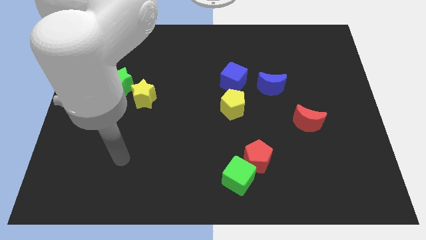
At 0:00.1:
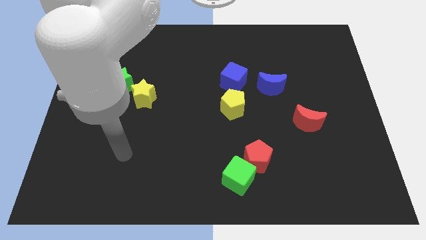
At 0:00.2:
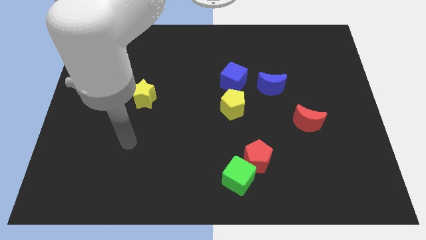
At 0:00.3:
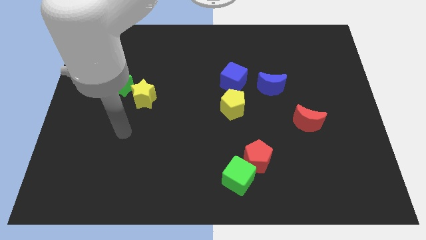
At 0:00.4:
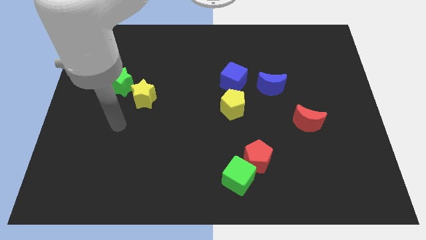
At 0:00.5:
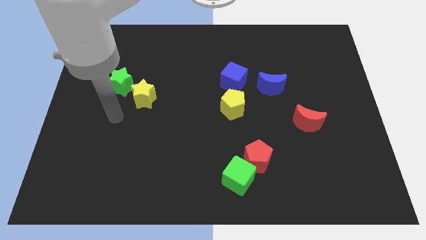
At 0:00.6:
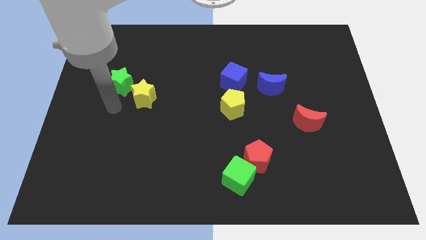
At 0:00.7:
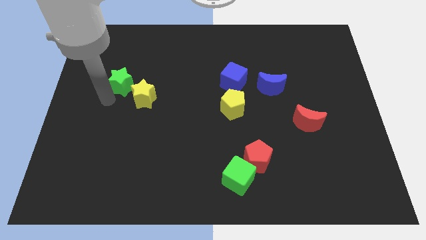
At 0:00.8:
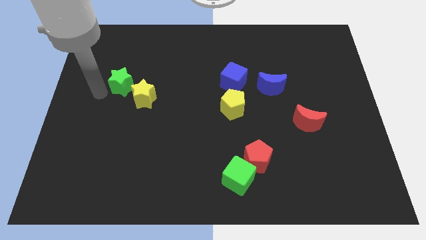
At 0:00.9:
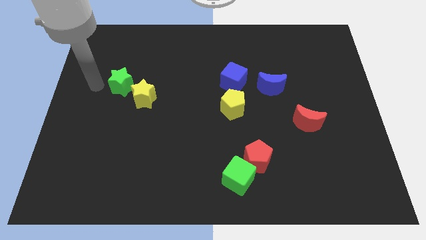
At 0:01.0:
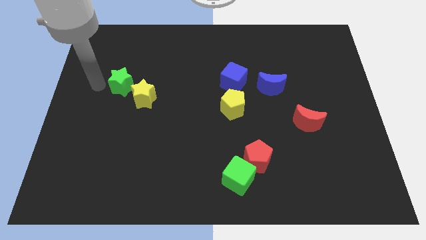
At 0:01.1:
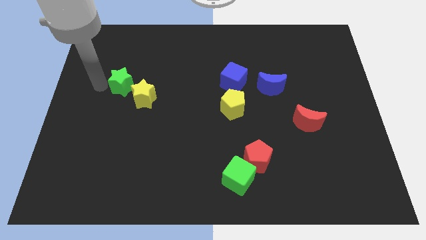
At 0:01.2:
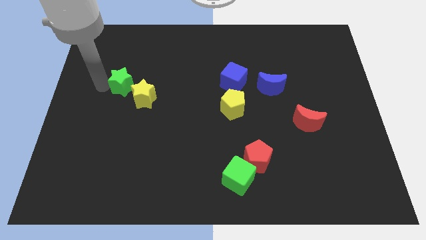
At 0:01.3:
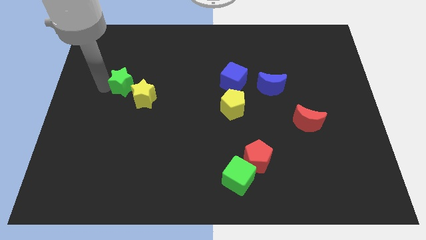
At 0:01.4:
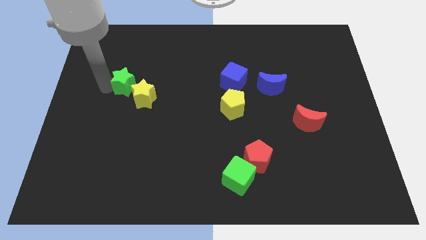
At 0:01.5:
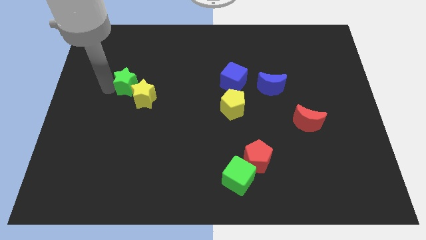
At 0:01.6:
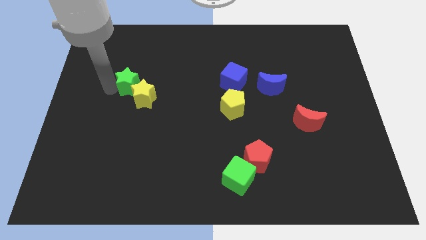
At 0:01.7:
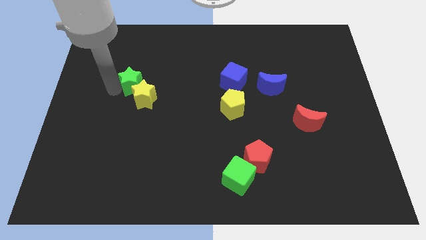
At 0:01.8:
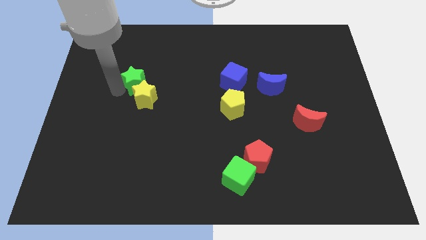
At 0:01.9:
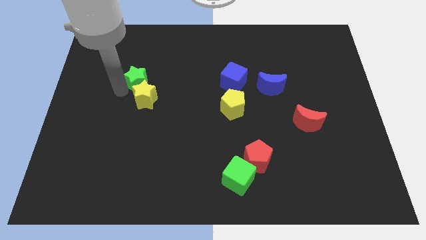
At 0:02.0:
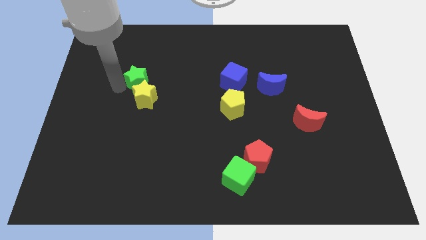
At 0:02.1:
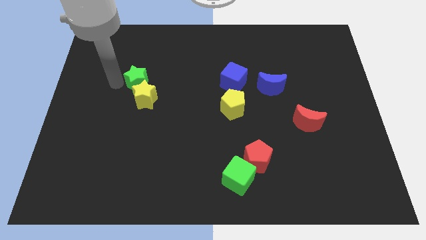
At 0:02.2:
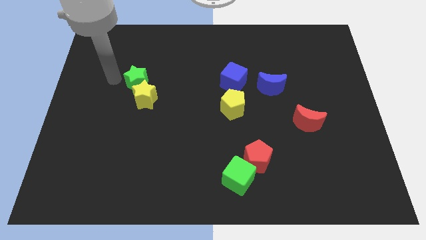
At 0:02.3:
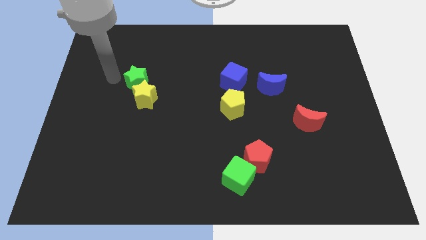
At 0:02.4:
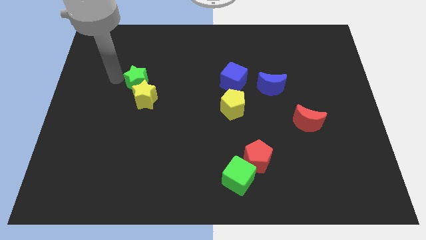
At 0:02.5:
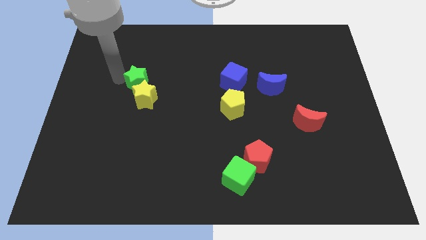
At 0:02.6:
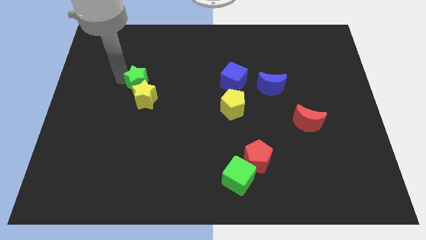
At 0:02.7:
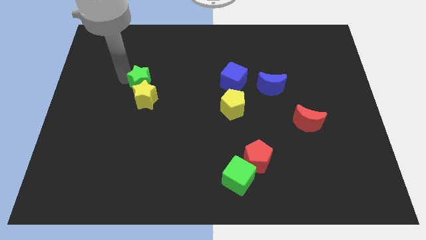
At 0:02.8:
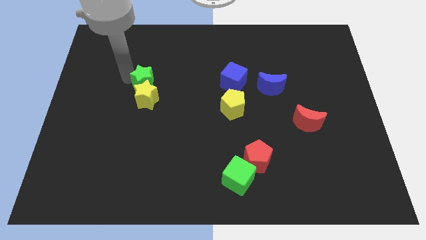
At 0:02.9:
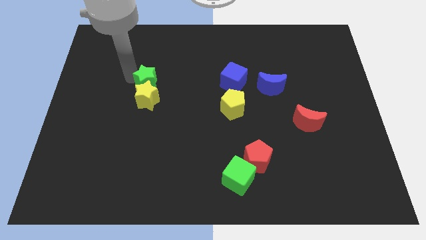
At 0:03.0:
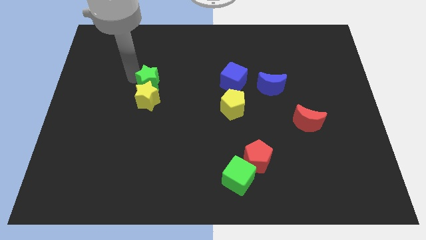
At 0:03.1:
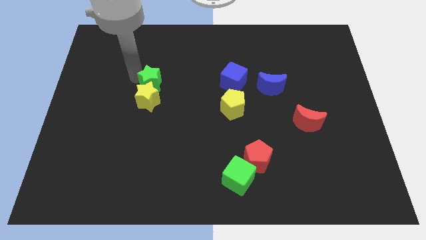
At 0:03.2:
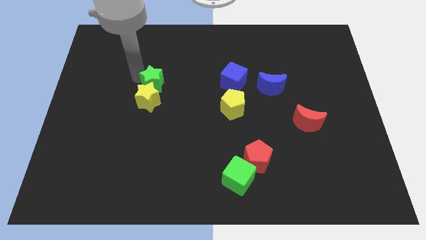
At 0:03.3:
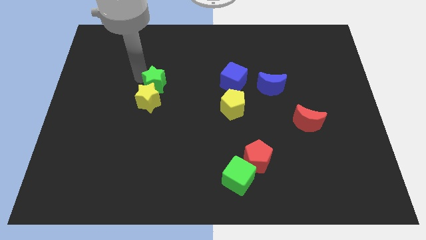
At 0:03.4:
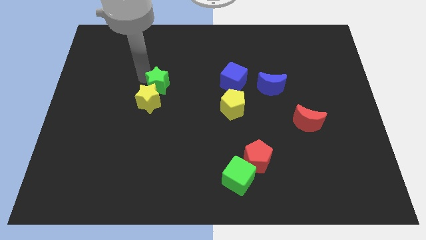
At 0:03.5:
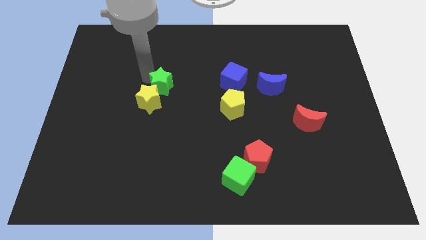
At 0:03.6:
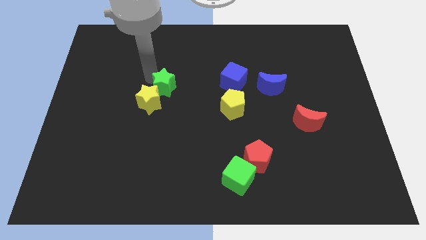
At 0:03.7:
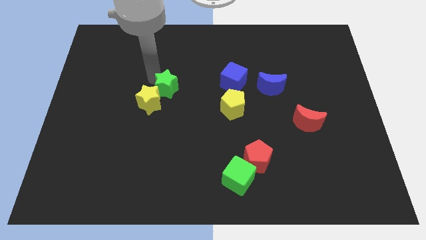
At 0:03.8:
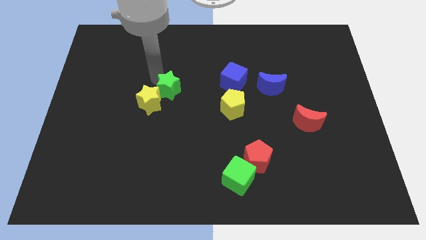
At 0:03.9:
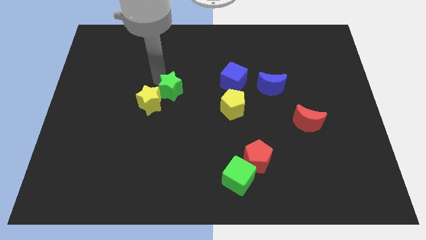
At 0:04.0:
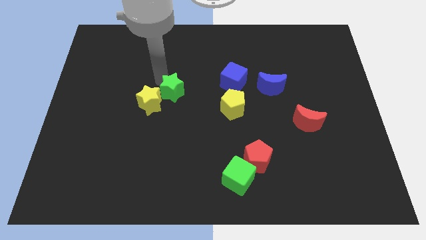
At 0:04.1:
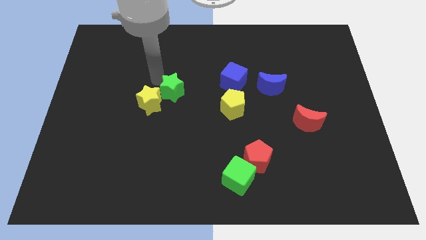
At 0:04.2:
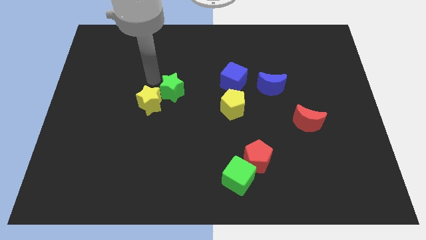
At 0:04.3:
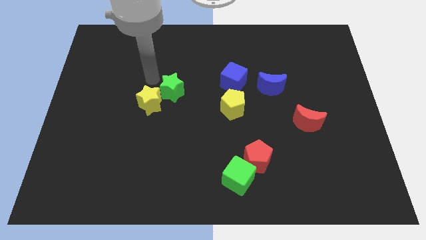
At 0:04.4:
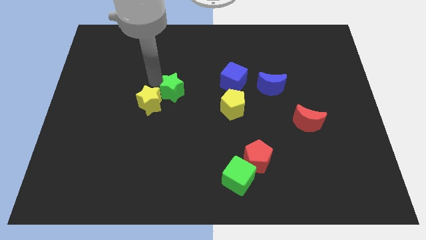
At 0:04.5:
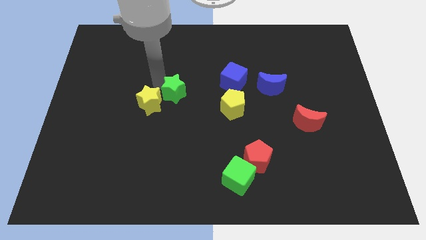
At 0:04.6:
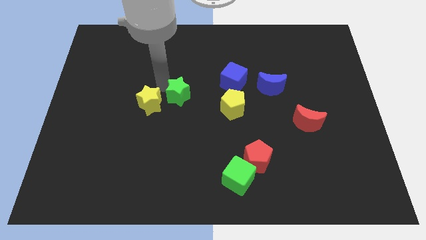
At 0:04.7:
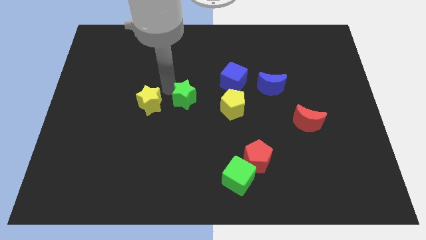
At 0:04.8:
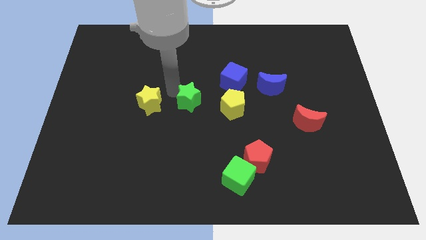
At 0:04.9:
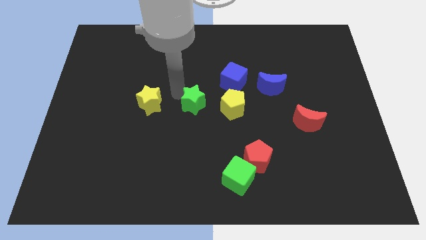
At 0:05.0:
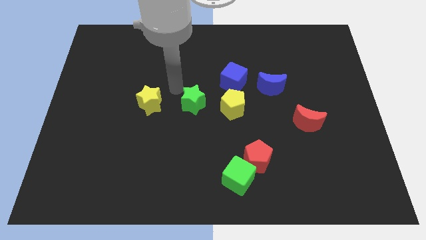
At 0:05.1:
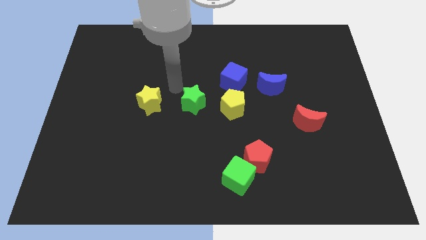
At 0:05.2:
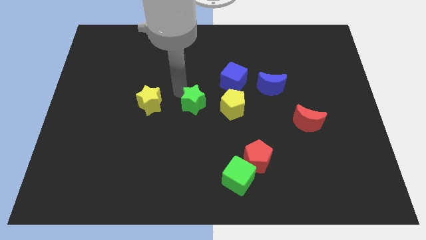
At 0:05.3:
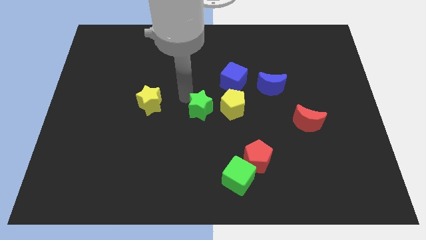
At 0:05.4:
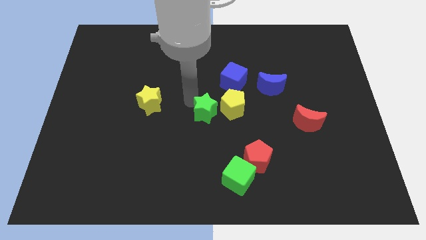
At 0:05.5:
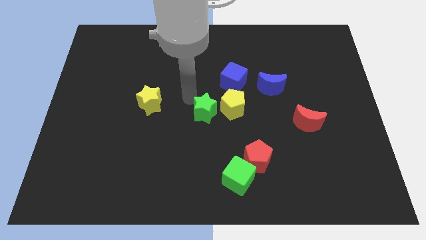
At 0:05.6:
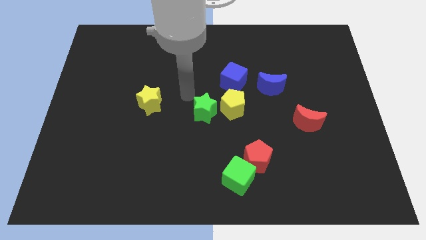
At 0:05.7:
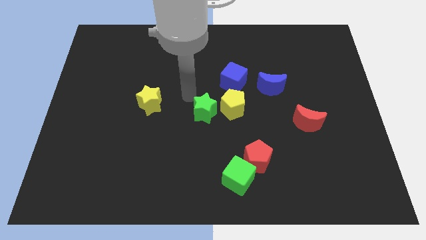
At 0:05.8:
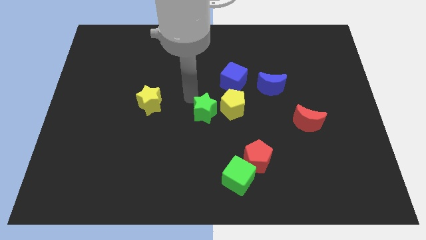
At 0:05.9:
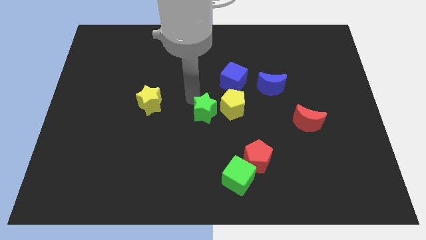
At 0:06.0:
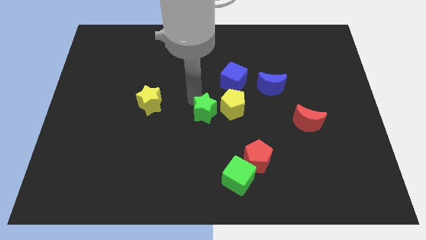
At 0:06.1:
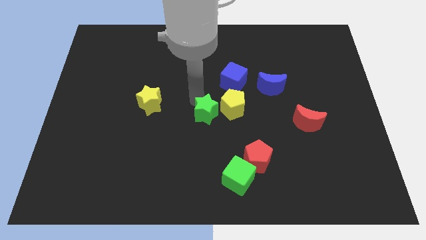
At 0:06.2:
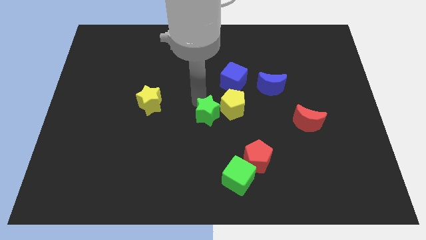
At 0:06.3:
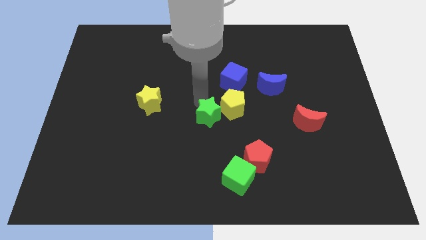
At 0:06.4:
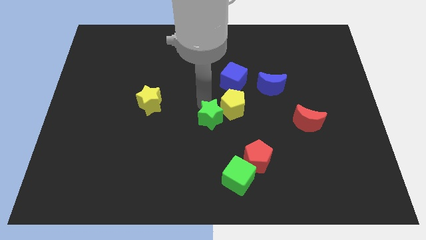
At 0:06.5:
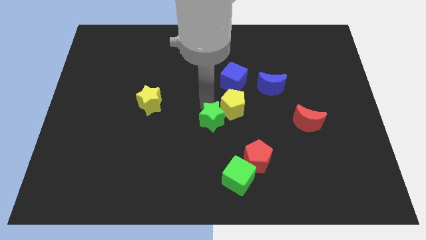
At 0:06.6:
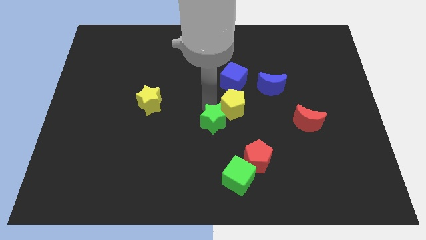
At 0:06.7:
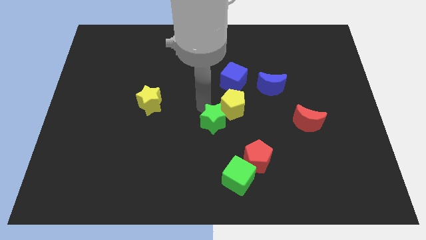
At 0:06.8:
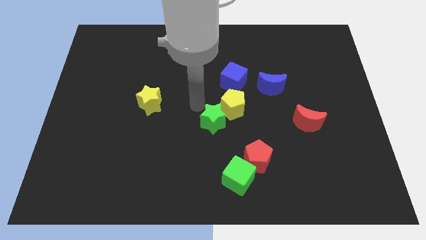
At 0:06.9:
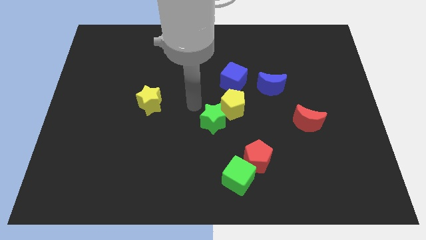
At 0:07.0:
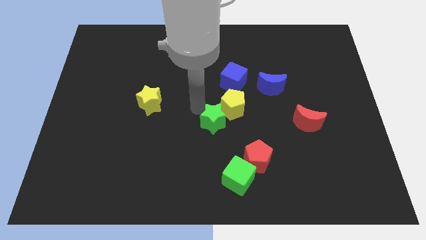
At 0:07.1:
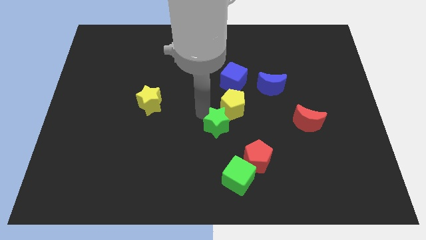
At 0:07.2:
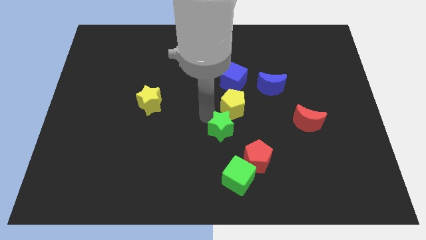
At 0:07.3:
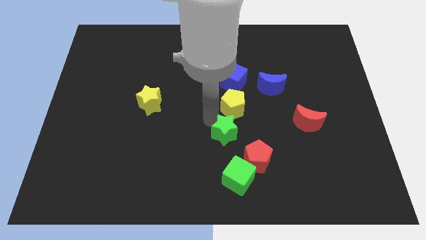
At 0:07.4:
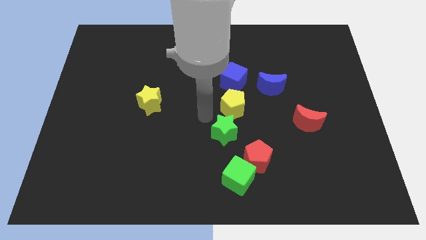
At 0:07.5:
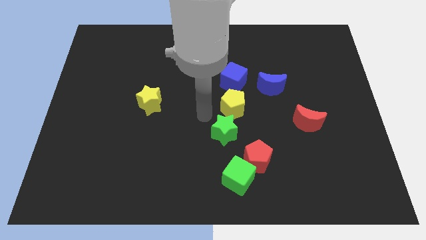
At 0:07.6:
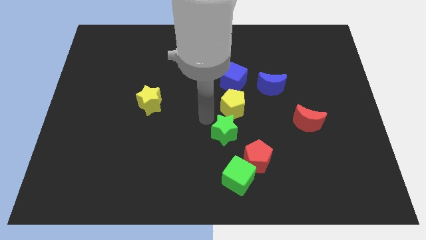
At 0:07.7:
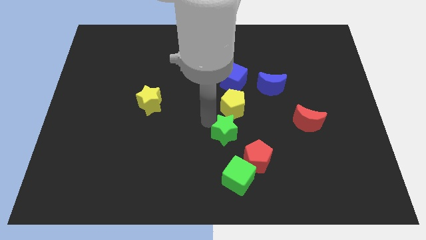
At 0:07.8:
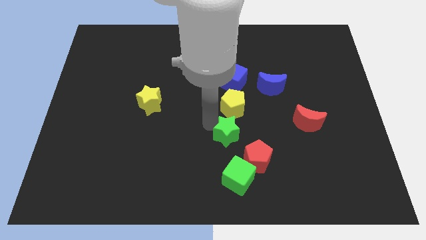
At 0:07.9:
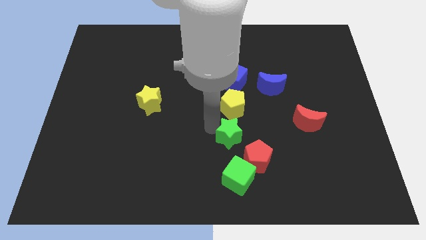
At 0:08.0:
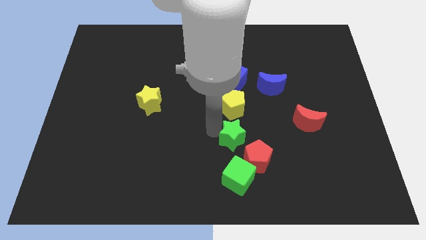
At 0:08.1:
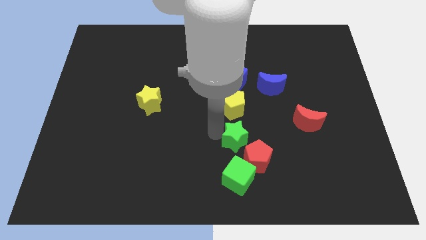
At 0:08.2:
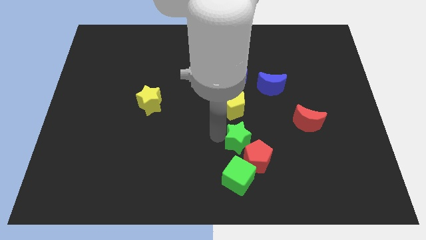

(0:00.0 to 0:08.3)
slide the green star to the red pentagon
